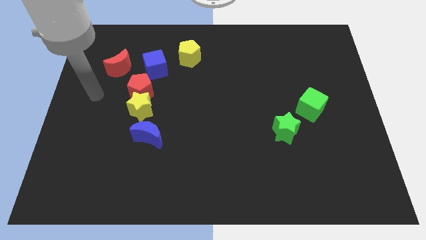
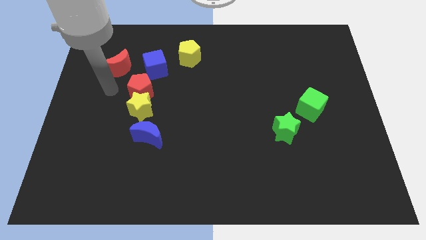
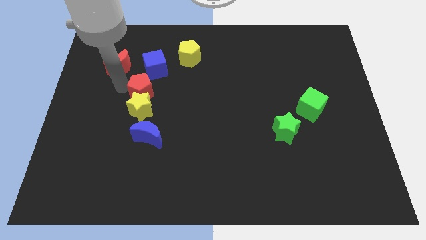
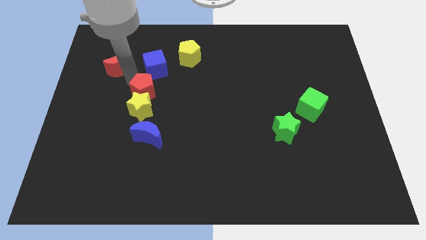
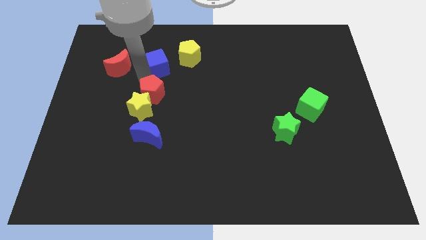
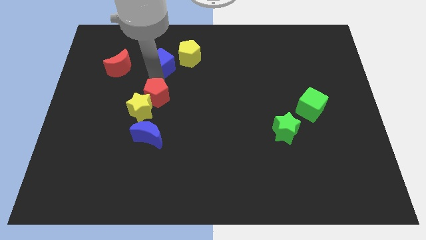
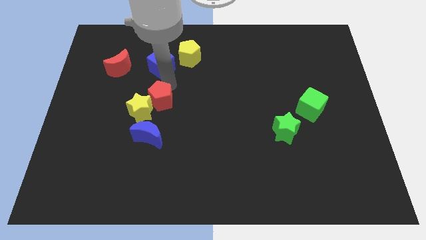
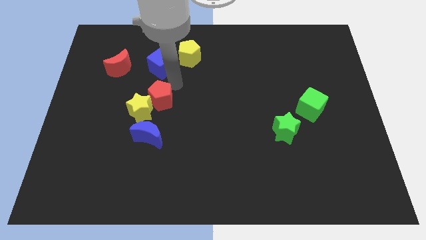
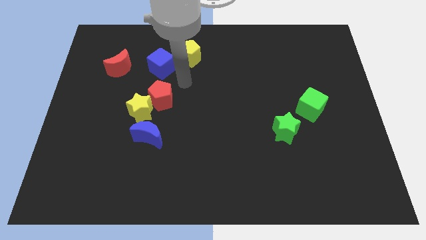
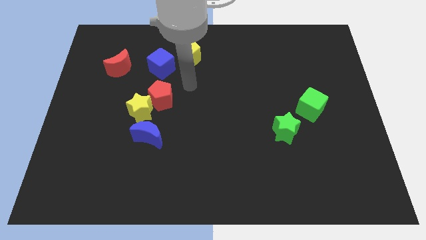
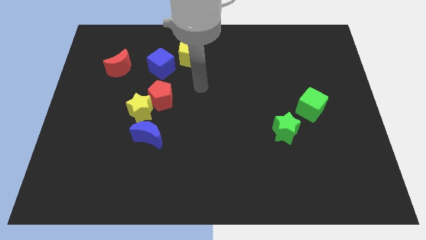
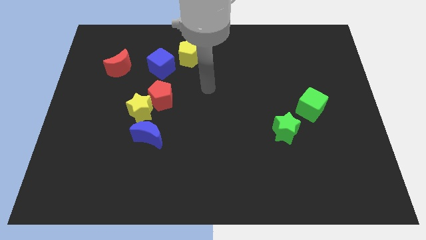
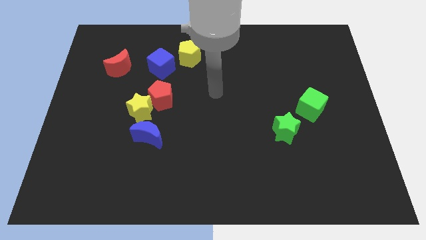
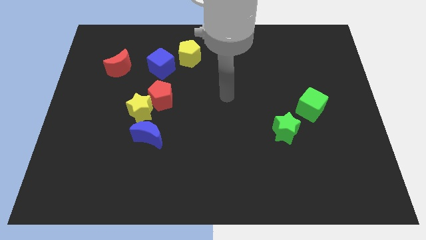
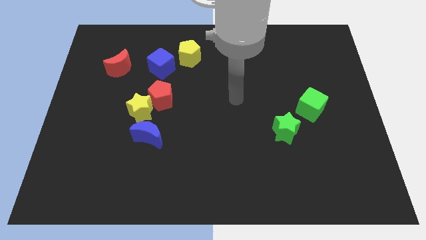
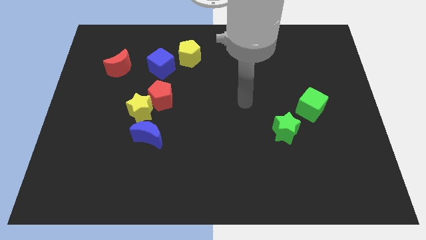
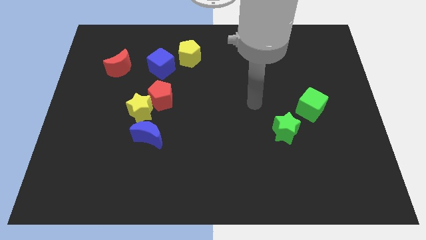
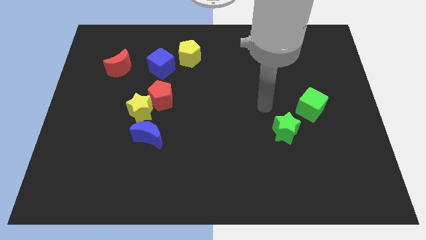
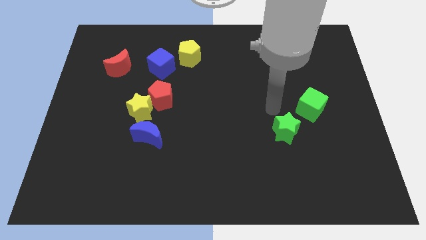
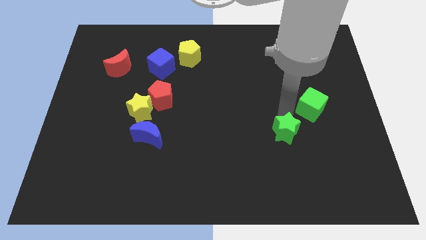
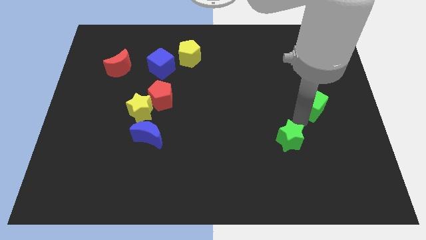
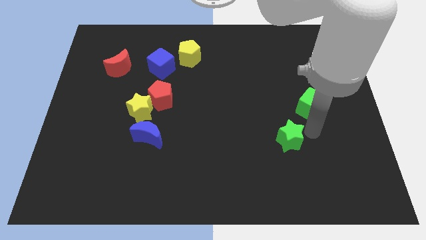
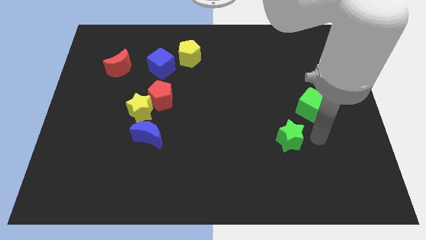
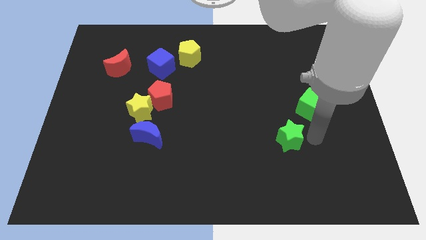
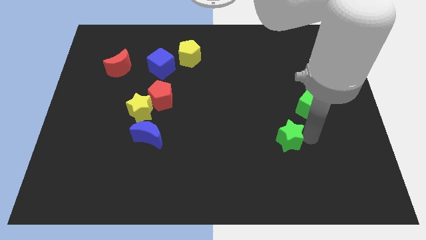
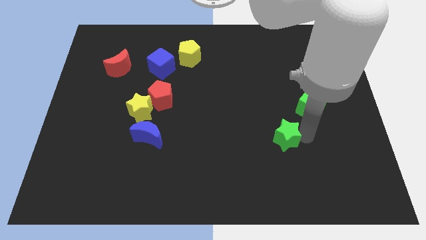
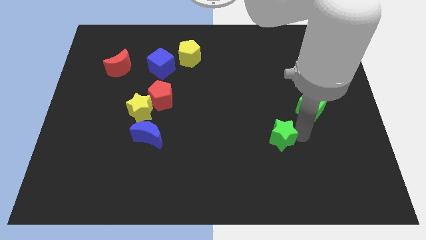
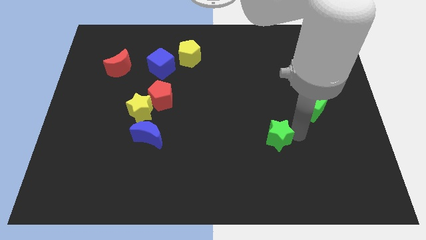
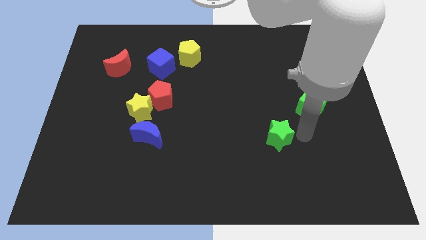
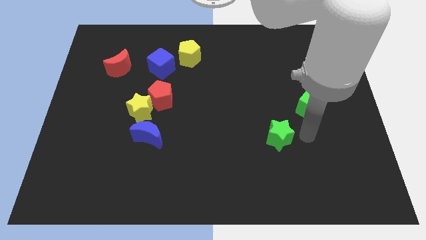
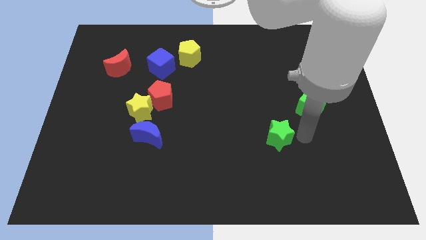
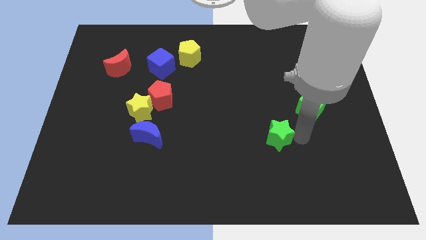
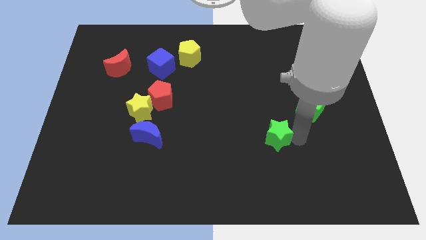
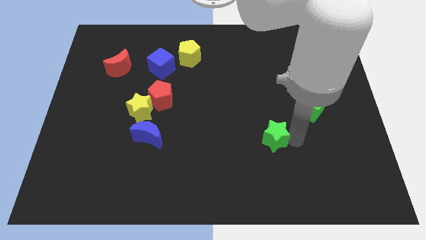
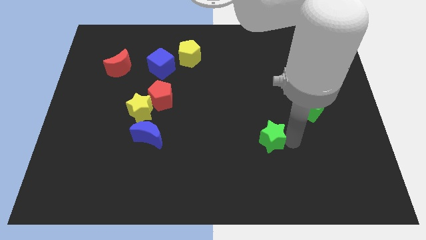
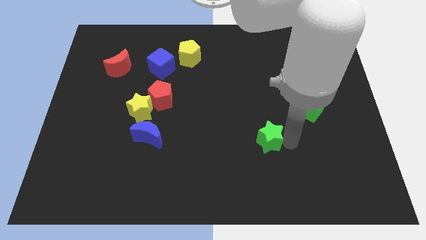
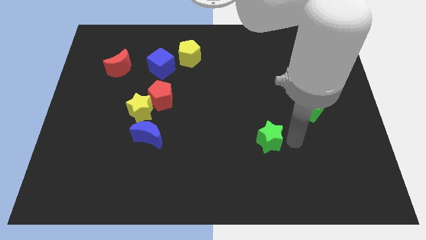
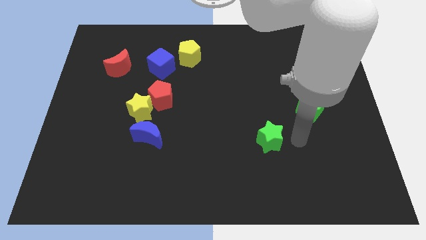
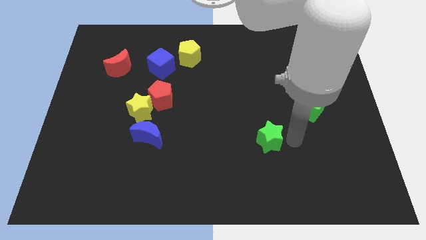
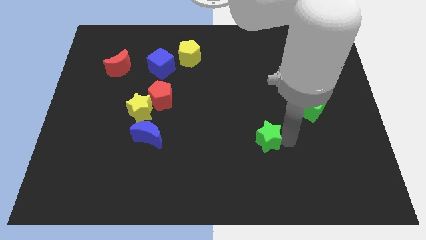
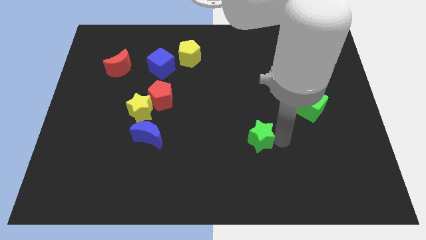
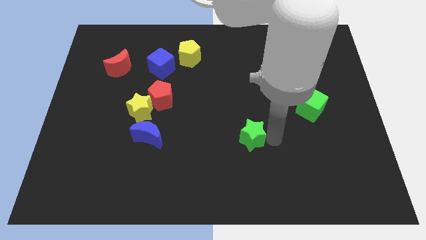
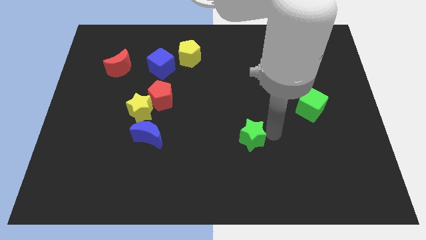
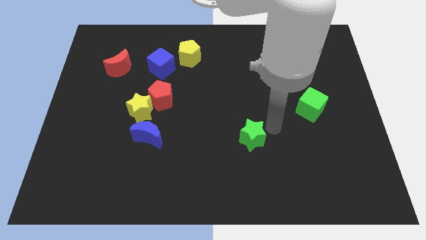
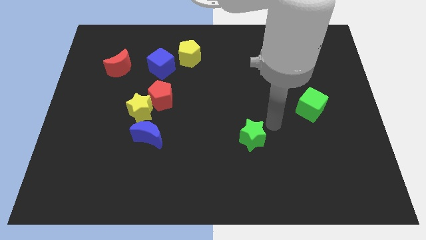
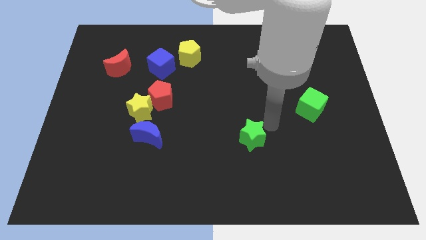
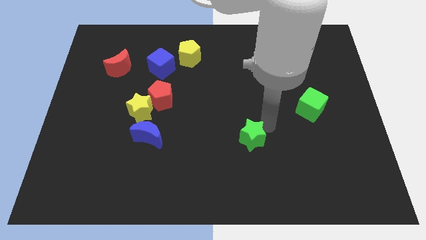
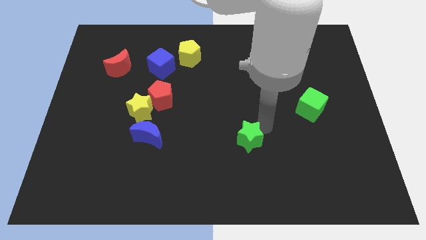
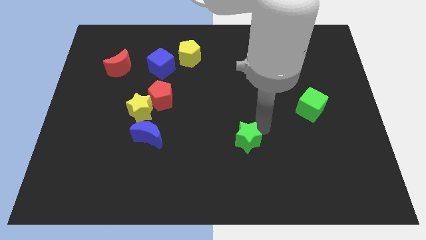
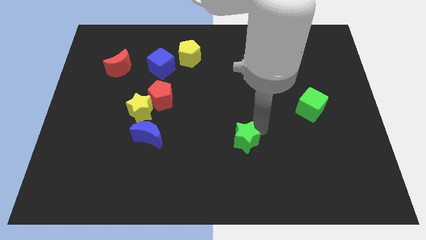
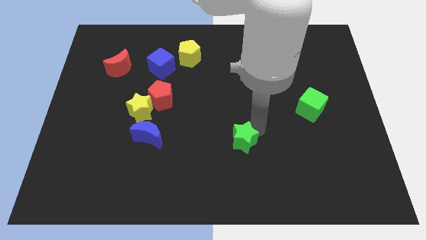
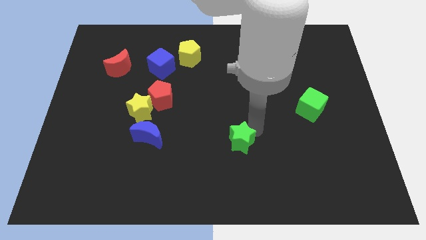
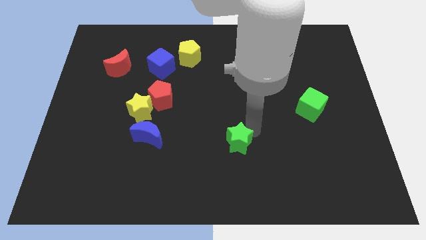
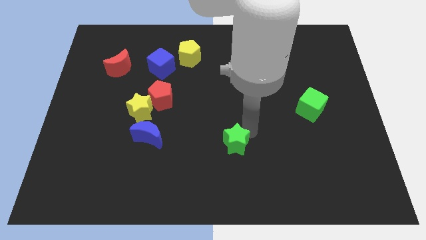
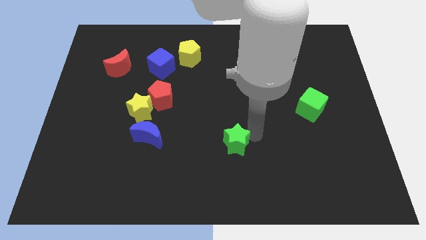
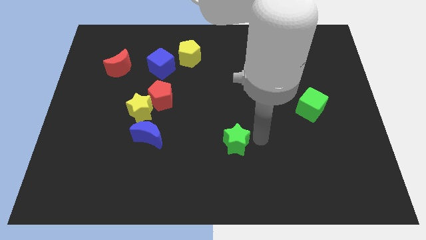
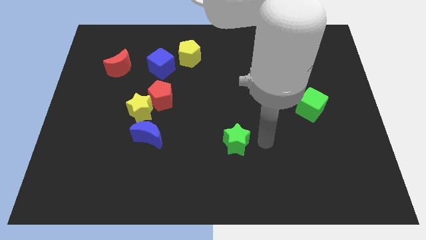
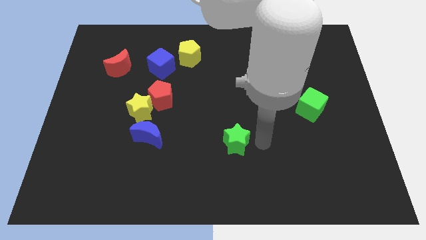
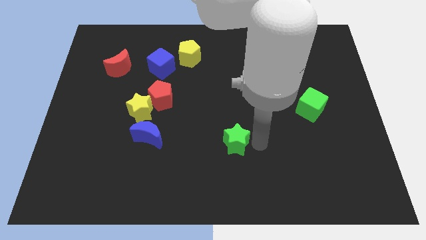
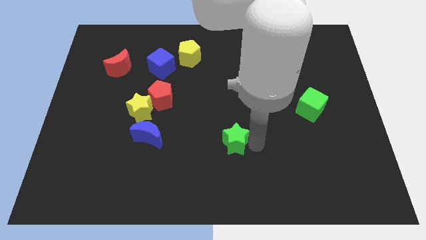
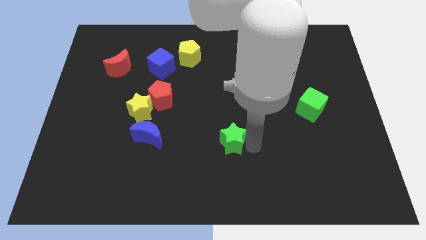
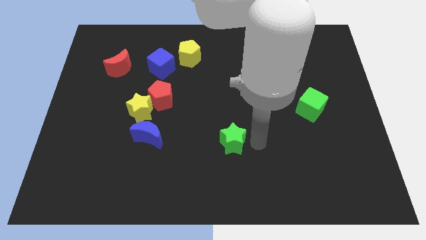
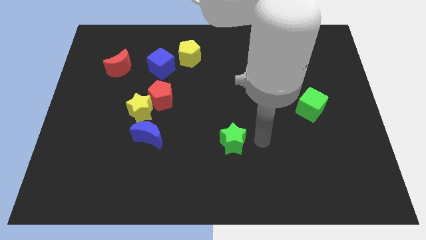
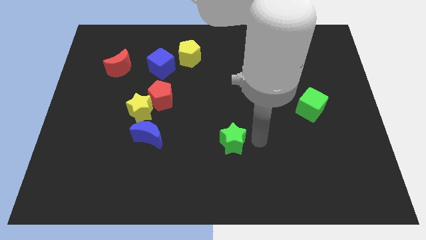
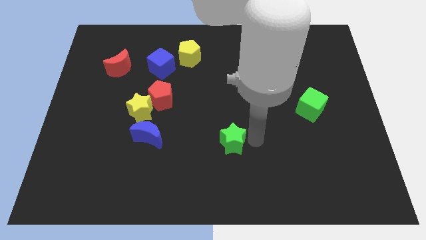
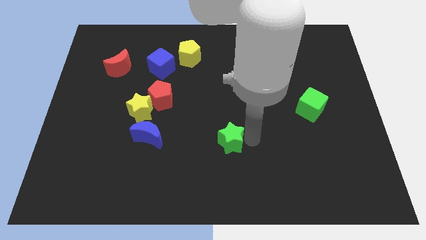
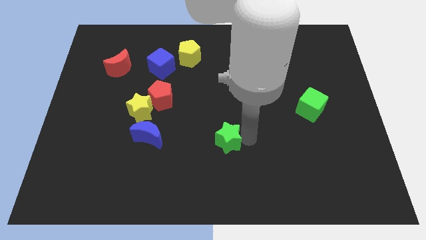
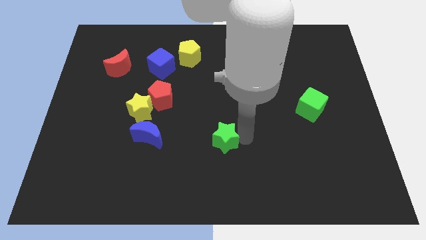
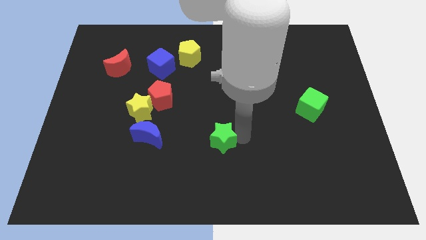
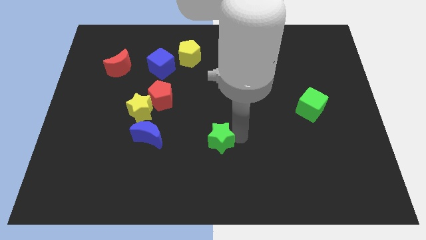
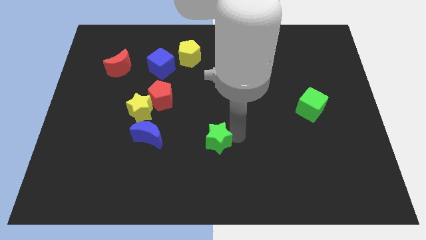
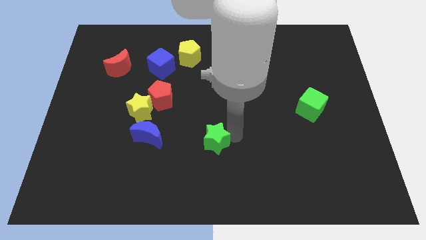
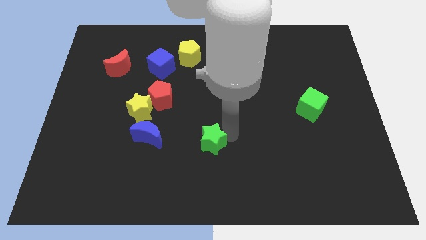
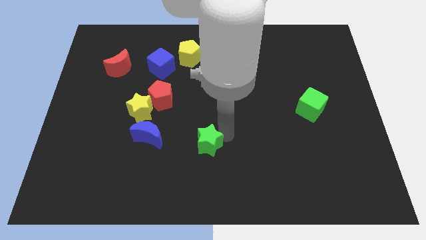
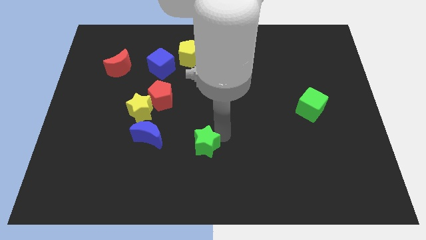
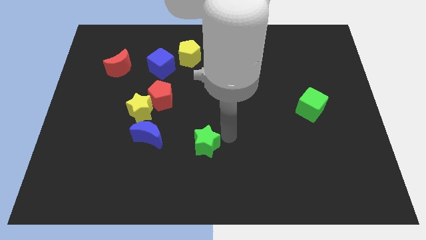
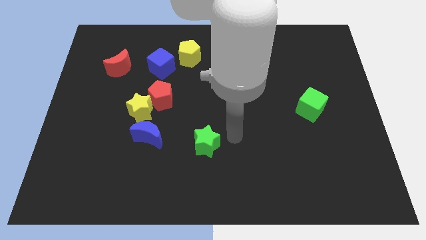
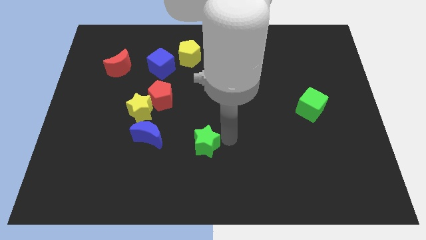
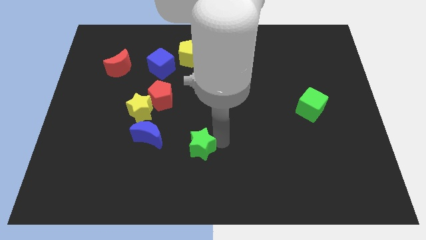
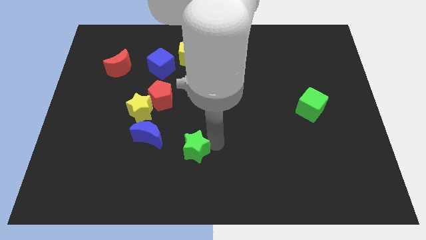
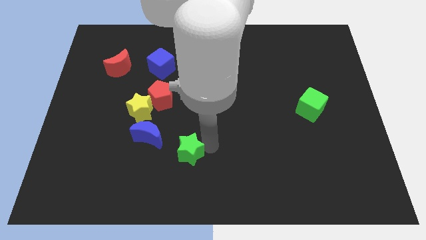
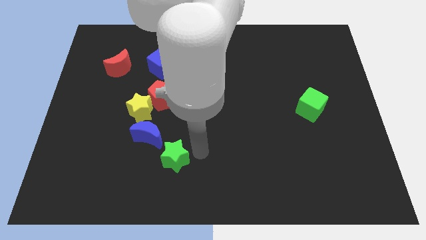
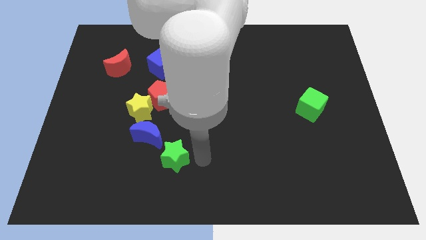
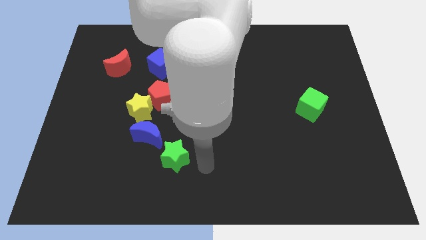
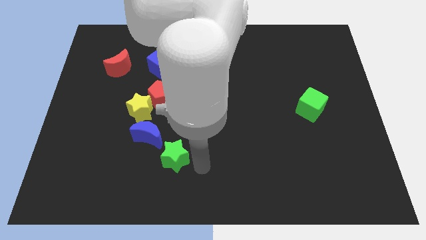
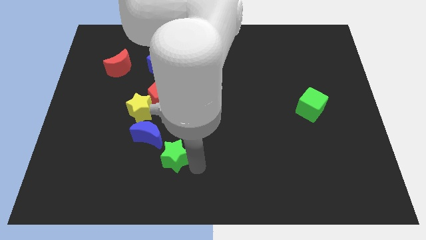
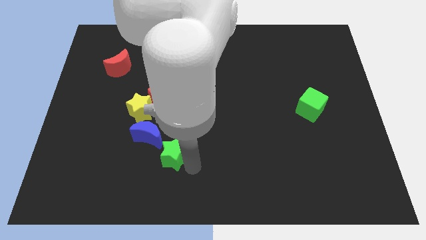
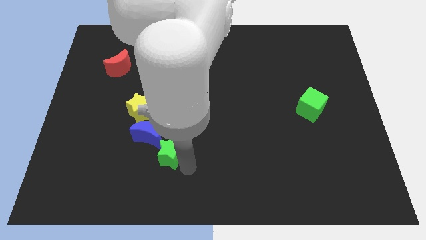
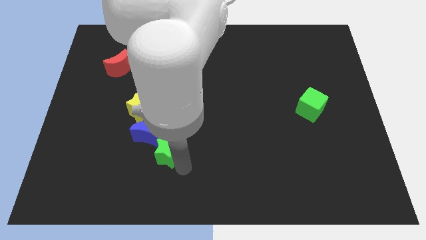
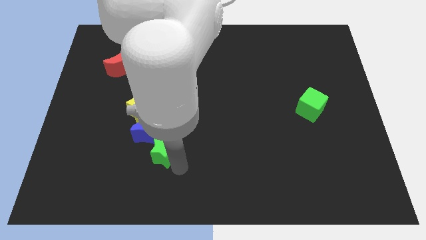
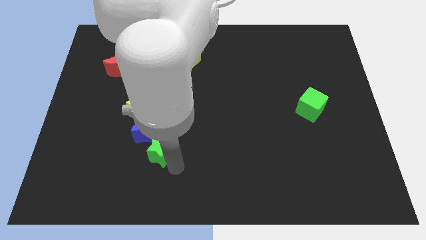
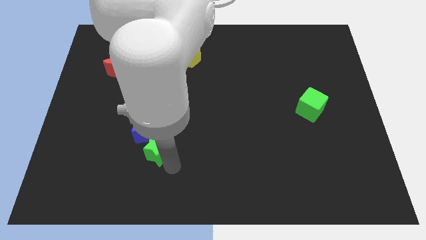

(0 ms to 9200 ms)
move the green star to the bottom side of the yellow star
